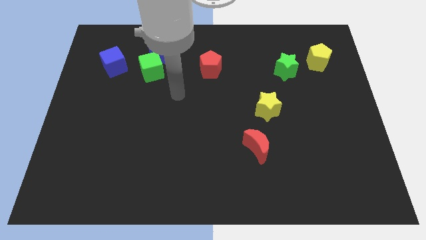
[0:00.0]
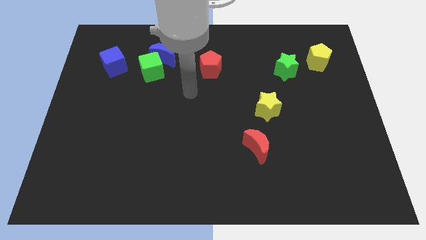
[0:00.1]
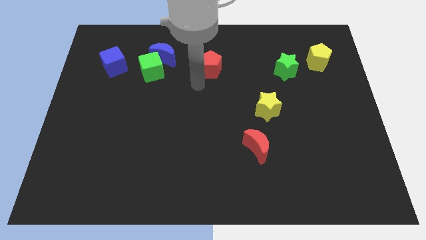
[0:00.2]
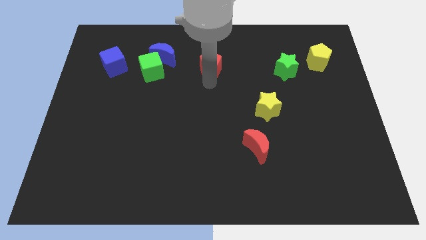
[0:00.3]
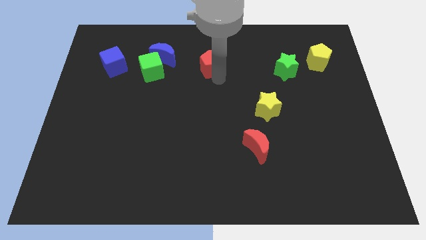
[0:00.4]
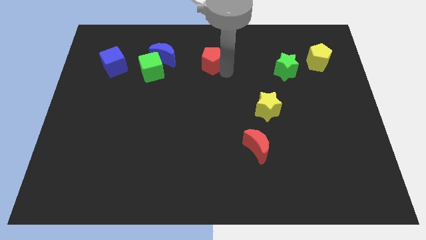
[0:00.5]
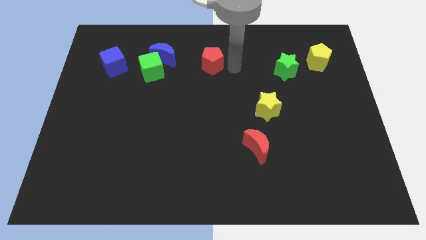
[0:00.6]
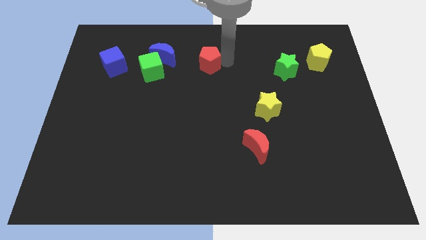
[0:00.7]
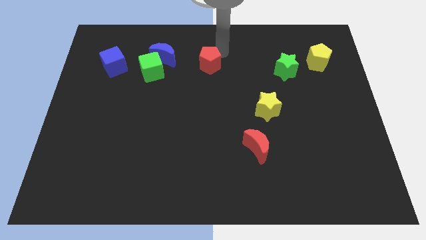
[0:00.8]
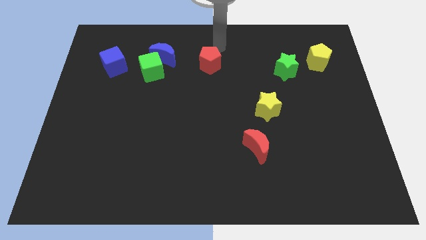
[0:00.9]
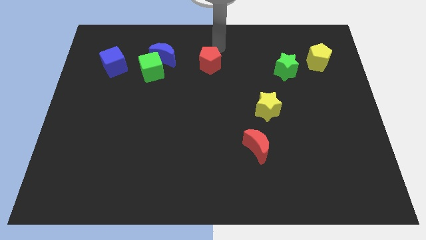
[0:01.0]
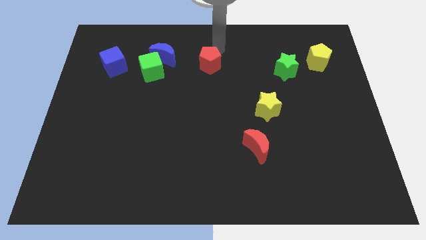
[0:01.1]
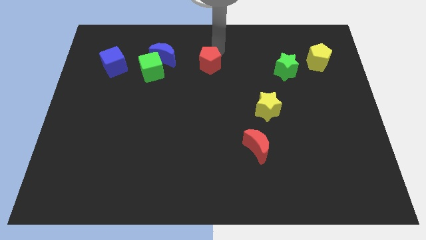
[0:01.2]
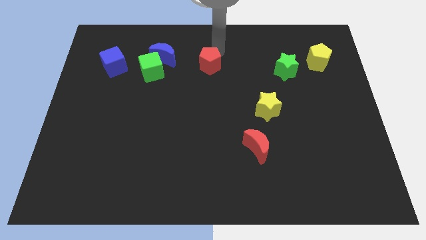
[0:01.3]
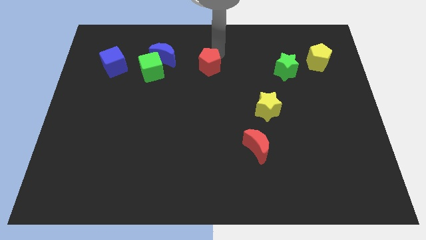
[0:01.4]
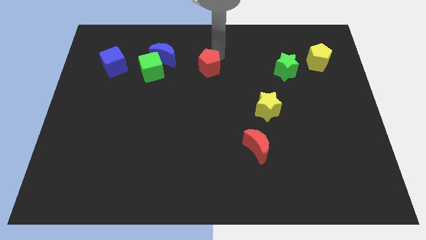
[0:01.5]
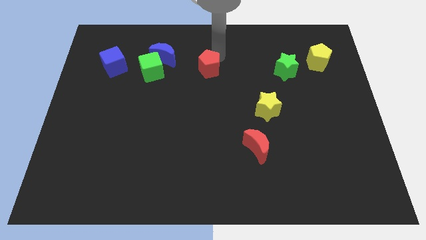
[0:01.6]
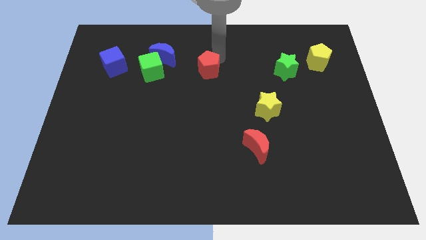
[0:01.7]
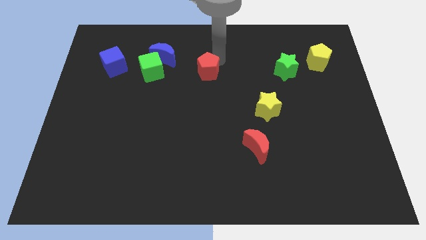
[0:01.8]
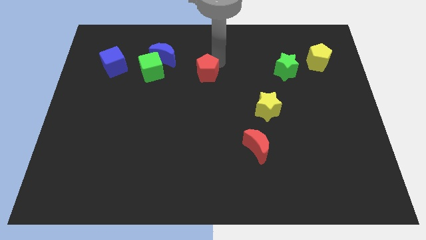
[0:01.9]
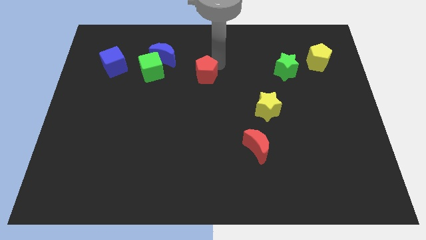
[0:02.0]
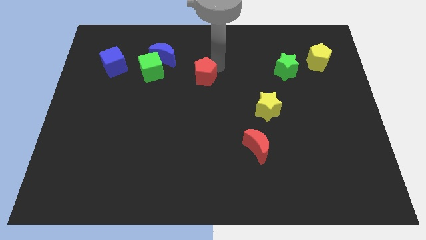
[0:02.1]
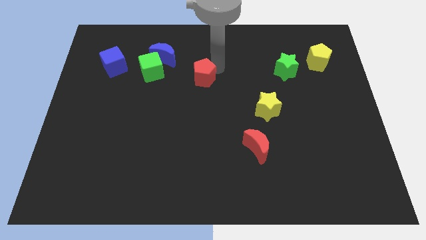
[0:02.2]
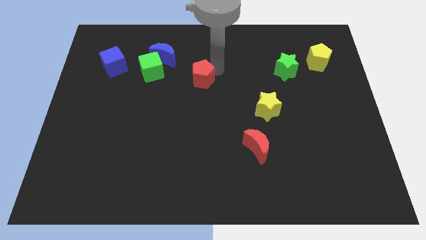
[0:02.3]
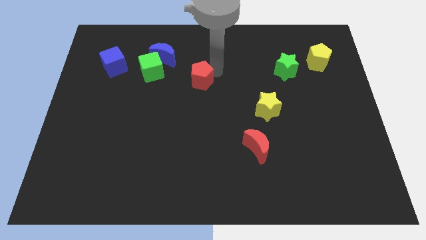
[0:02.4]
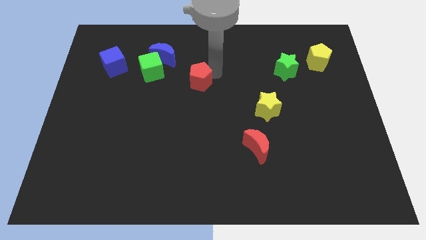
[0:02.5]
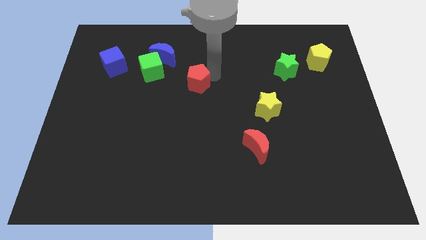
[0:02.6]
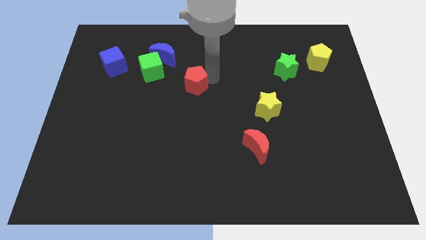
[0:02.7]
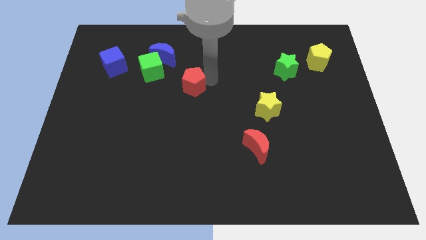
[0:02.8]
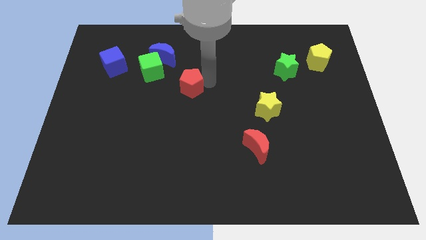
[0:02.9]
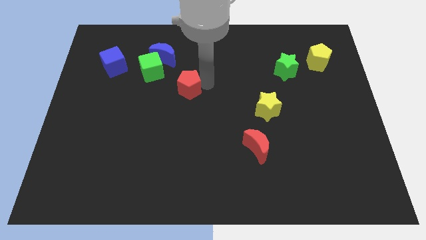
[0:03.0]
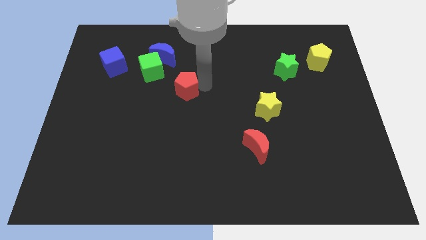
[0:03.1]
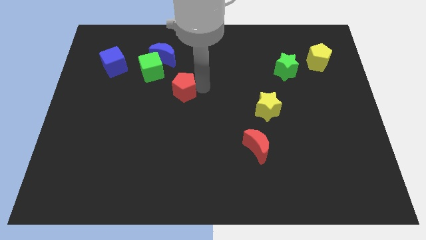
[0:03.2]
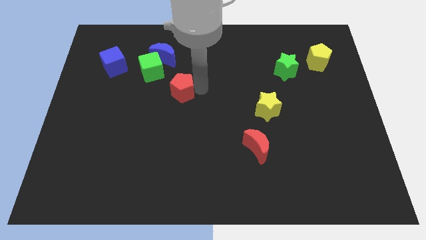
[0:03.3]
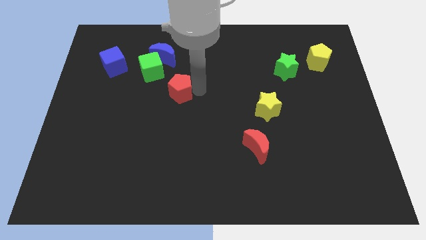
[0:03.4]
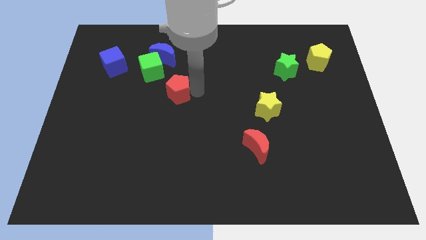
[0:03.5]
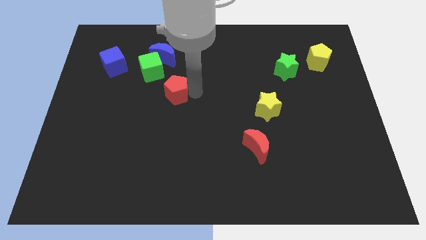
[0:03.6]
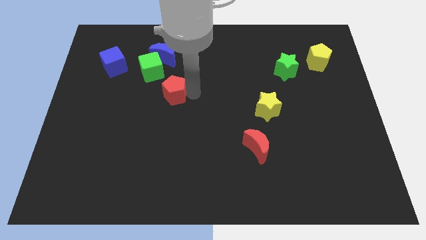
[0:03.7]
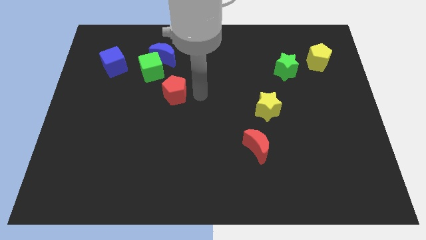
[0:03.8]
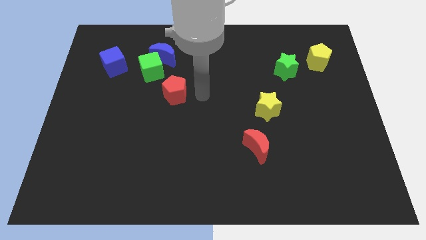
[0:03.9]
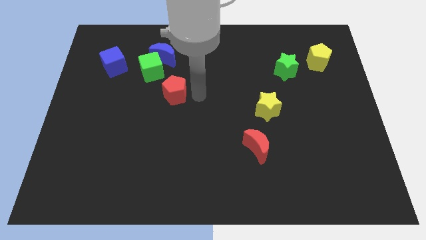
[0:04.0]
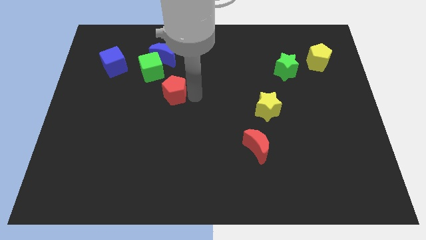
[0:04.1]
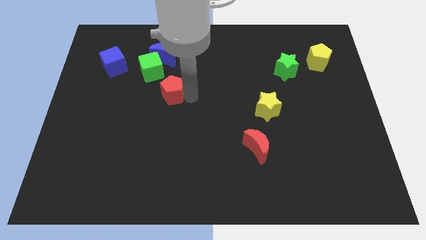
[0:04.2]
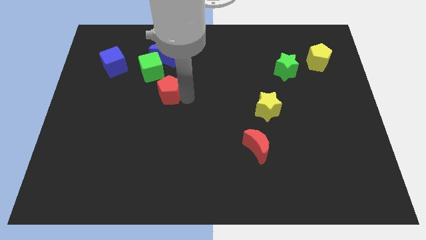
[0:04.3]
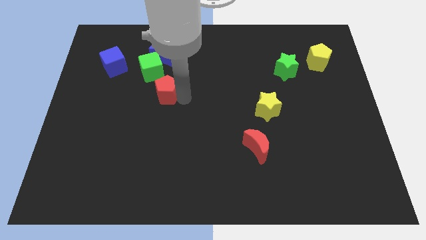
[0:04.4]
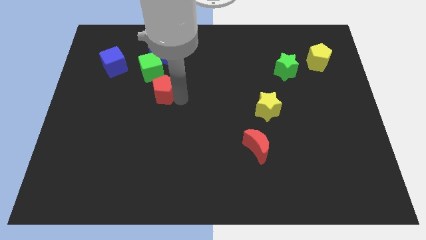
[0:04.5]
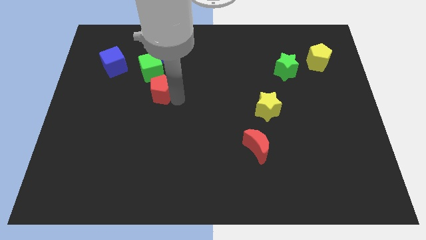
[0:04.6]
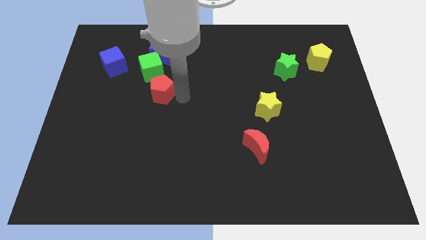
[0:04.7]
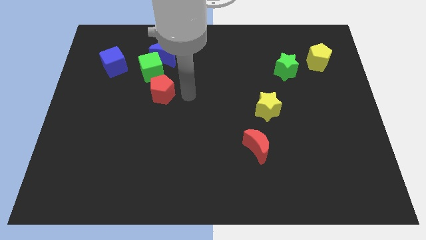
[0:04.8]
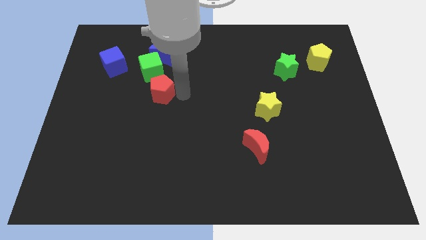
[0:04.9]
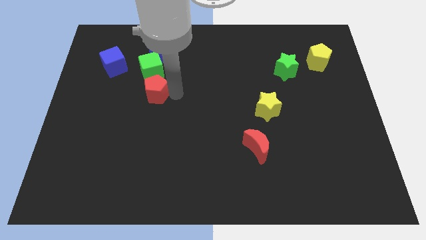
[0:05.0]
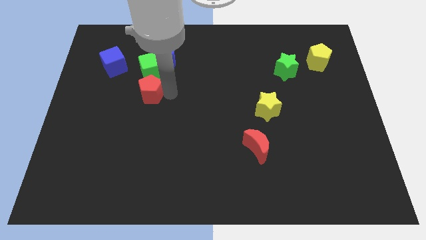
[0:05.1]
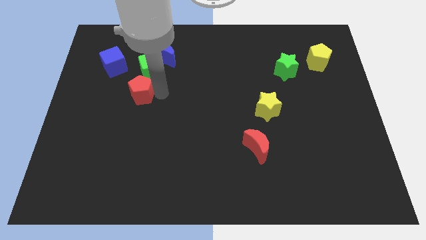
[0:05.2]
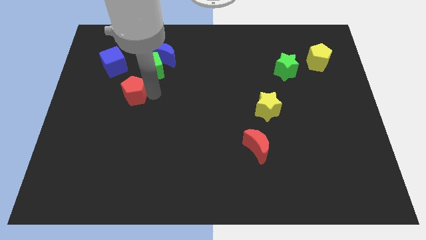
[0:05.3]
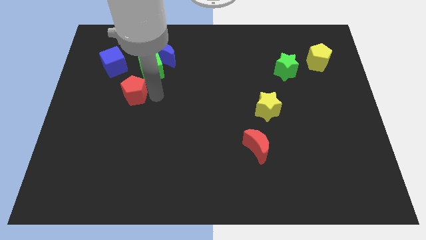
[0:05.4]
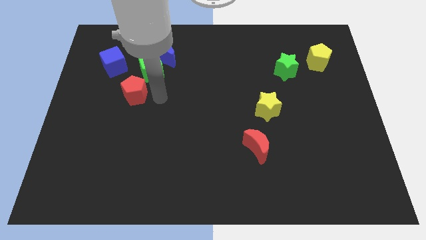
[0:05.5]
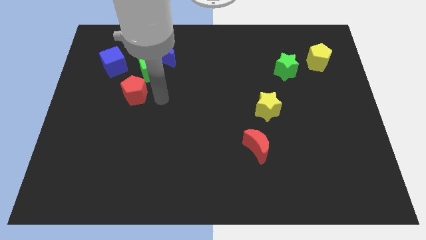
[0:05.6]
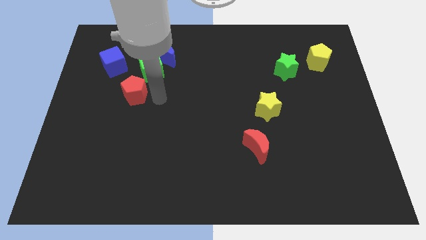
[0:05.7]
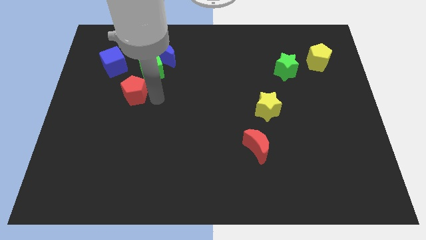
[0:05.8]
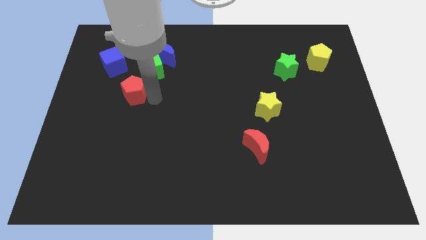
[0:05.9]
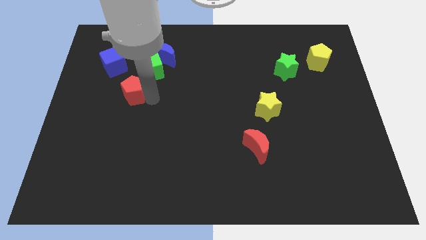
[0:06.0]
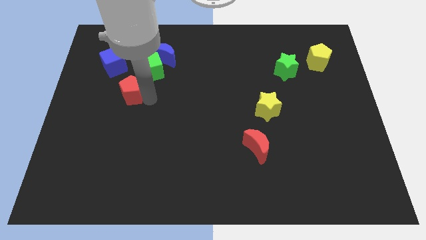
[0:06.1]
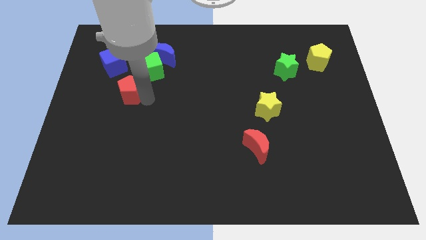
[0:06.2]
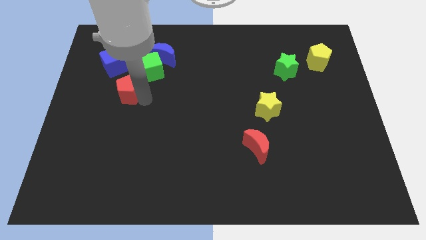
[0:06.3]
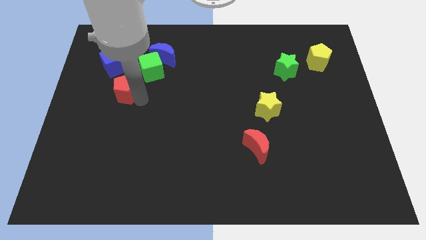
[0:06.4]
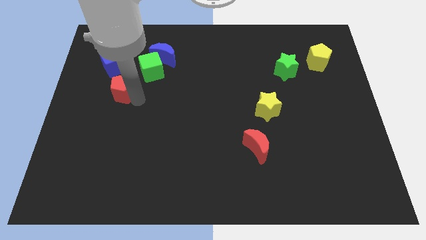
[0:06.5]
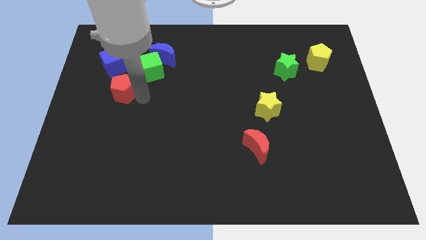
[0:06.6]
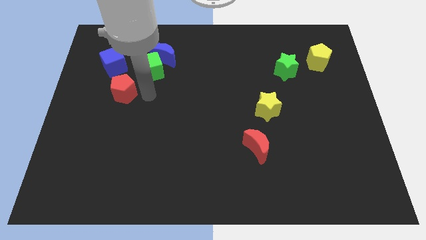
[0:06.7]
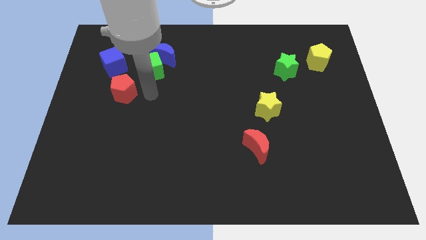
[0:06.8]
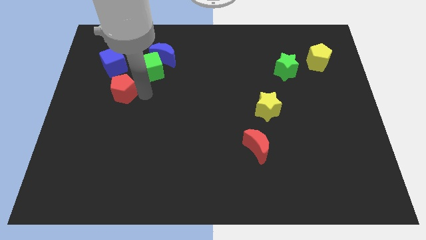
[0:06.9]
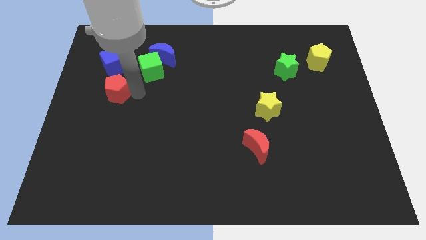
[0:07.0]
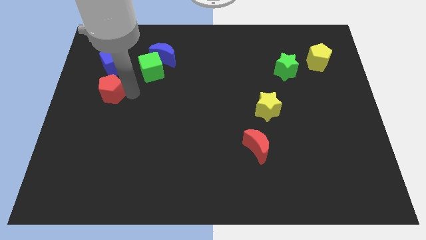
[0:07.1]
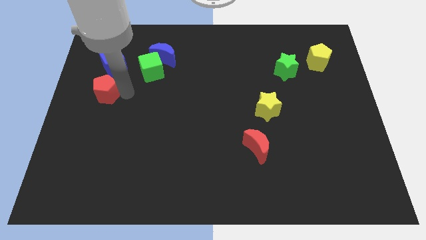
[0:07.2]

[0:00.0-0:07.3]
slide the red pentagon to the left side
